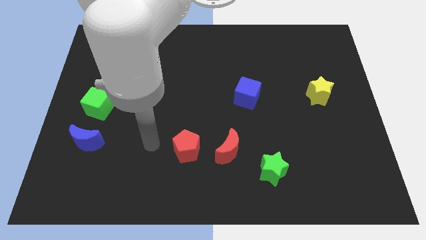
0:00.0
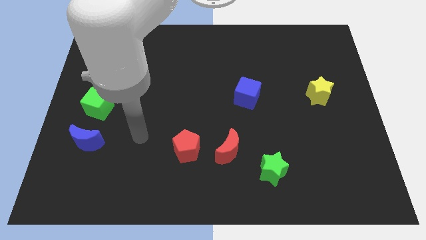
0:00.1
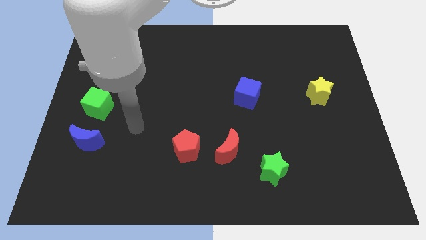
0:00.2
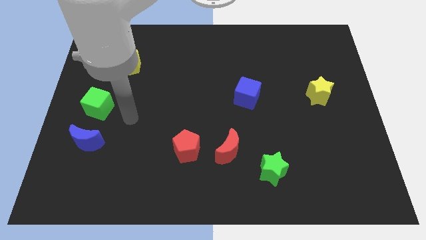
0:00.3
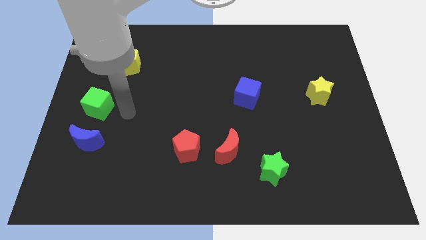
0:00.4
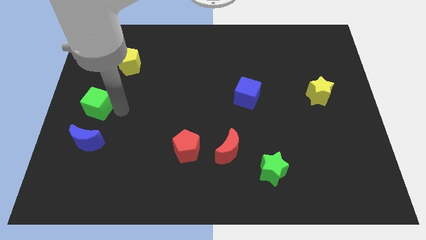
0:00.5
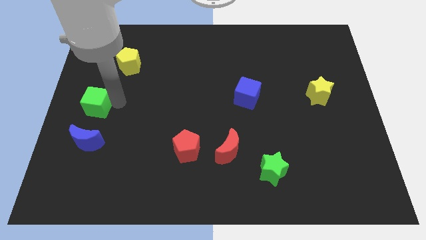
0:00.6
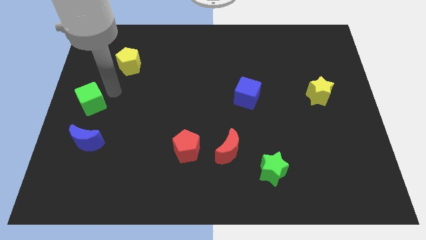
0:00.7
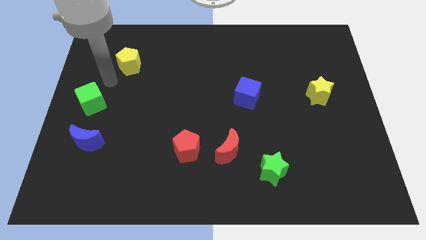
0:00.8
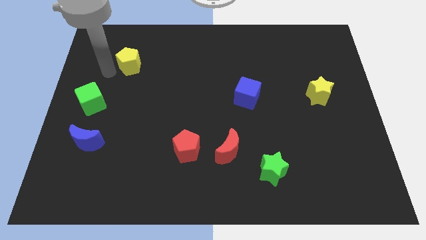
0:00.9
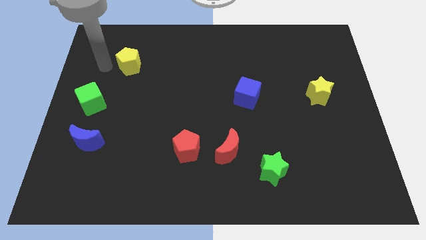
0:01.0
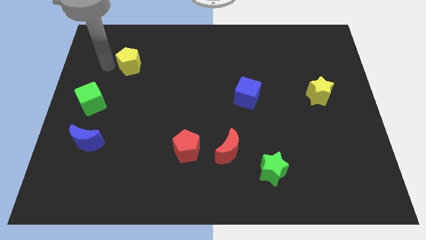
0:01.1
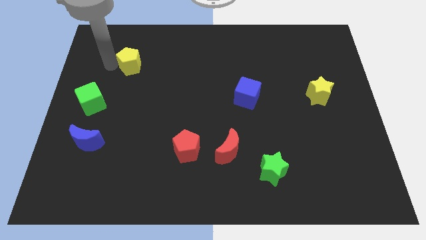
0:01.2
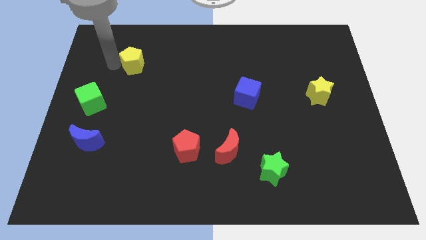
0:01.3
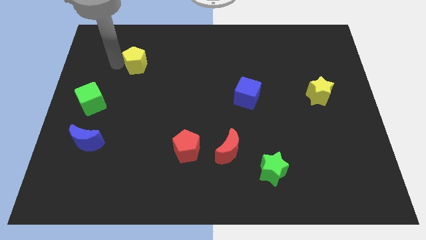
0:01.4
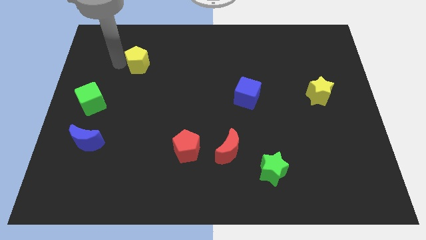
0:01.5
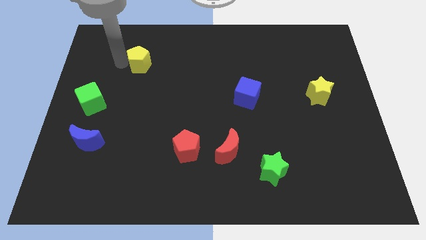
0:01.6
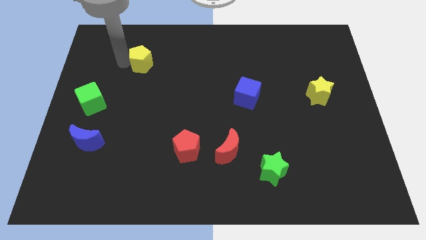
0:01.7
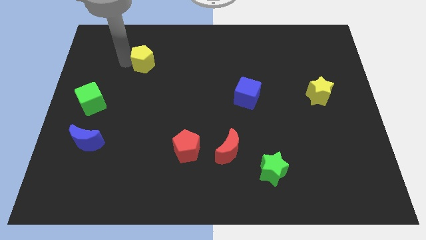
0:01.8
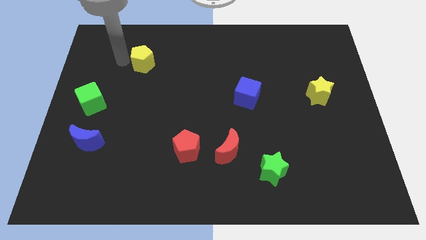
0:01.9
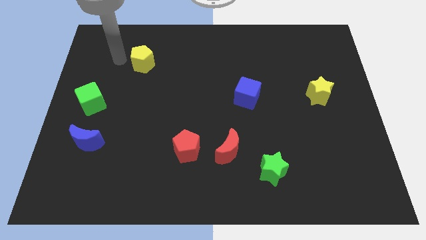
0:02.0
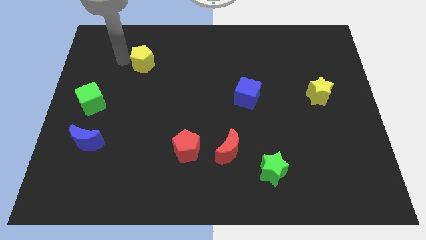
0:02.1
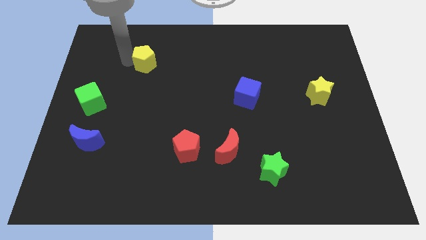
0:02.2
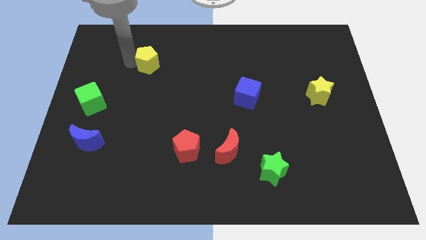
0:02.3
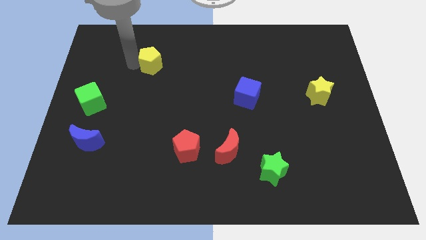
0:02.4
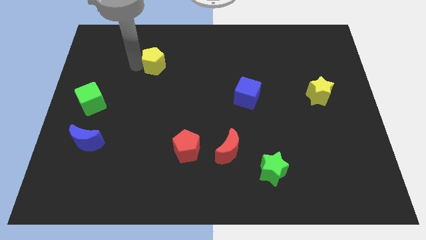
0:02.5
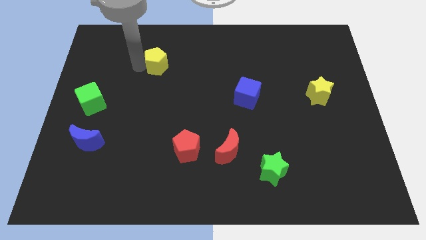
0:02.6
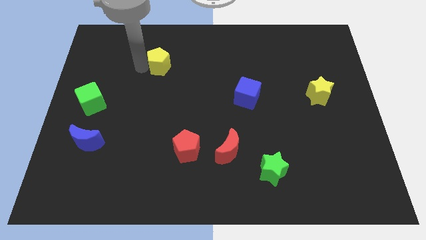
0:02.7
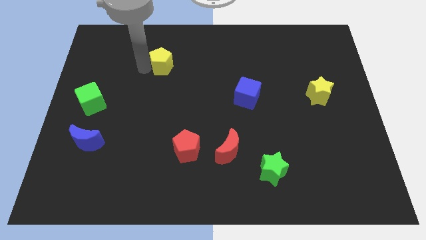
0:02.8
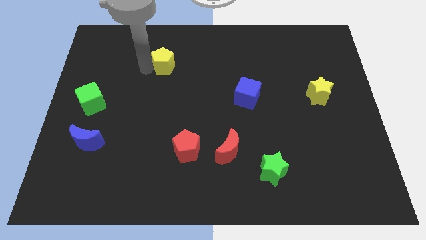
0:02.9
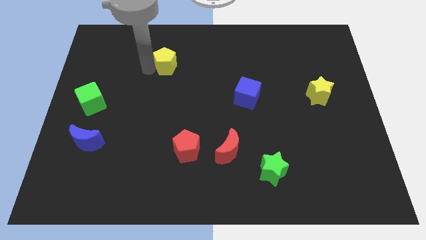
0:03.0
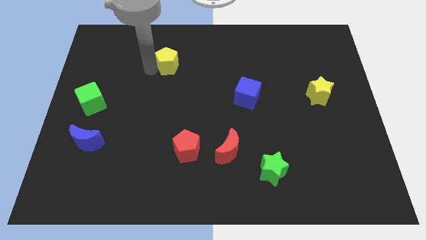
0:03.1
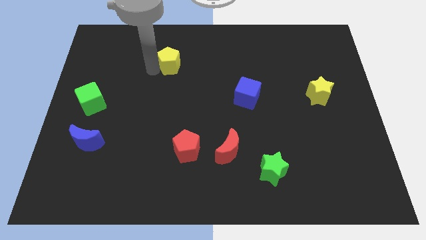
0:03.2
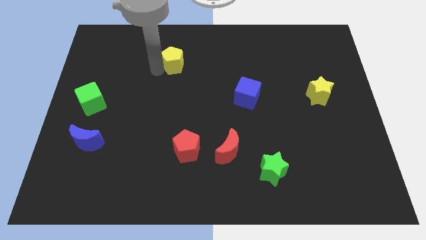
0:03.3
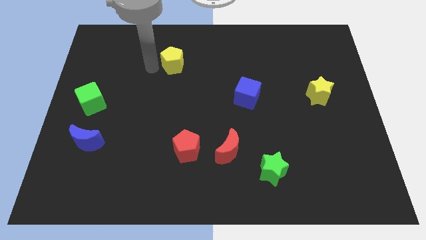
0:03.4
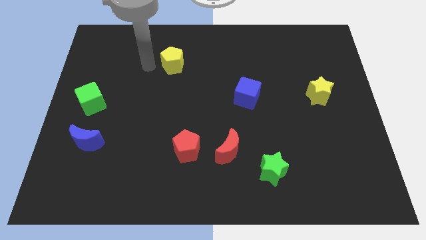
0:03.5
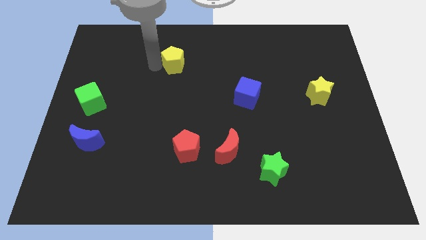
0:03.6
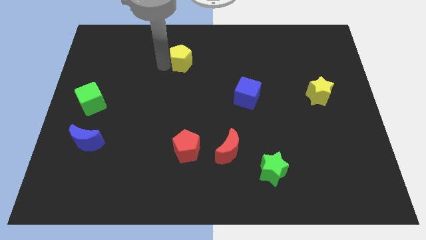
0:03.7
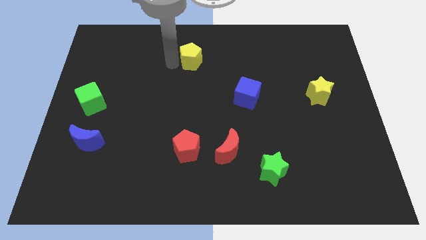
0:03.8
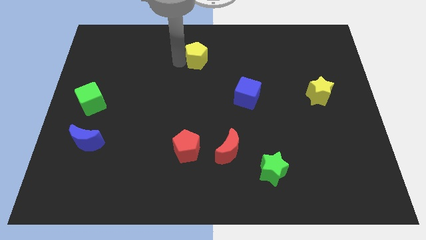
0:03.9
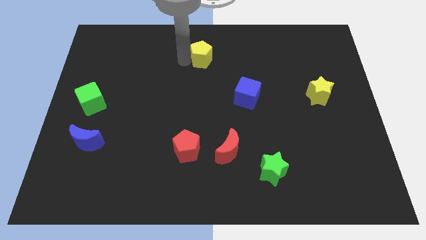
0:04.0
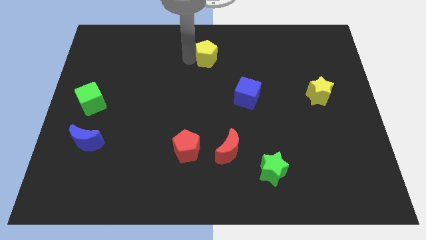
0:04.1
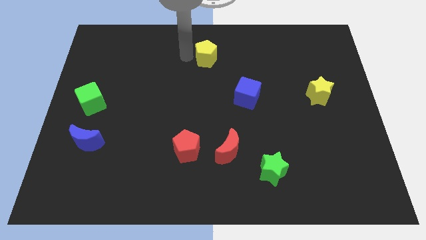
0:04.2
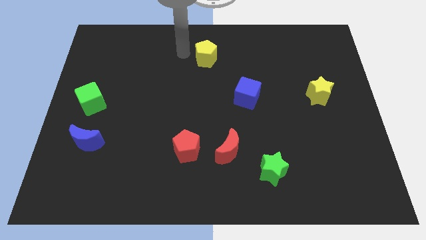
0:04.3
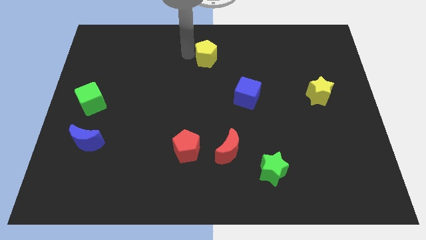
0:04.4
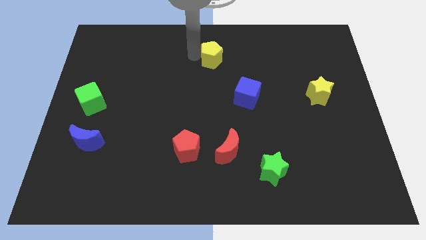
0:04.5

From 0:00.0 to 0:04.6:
push the yellow pentagon to the right

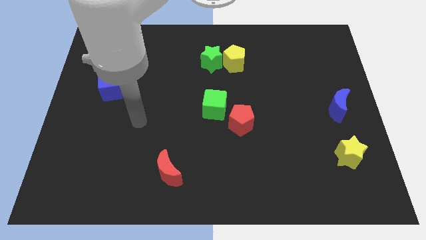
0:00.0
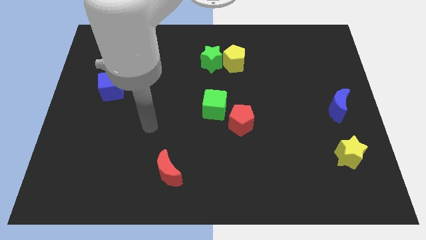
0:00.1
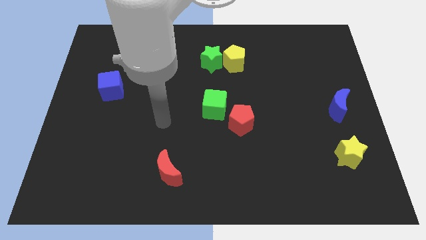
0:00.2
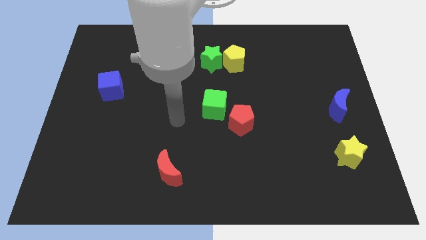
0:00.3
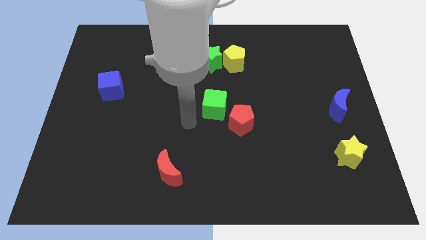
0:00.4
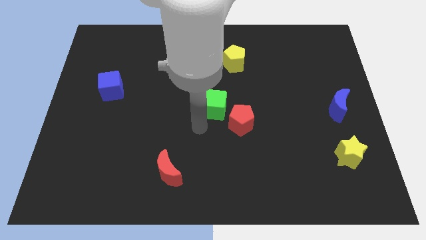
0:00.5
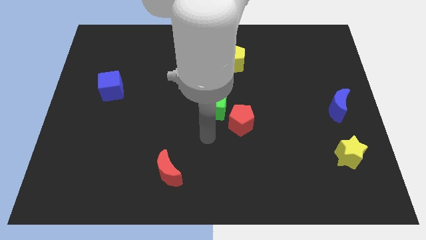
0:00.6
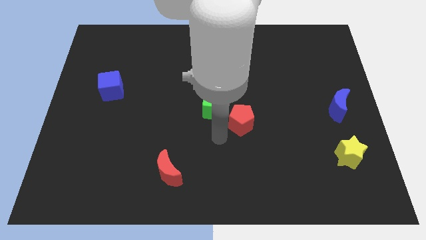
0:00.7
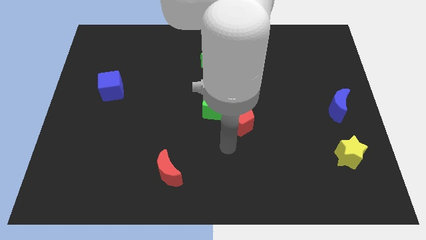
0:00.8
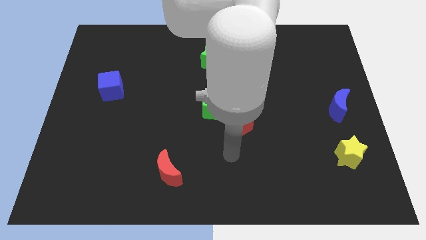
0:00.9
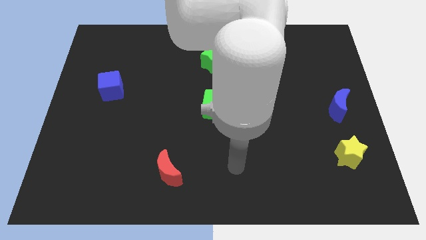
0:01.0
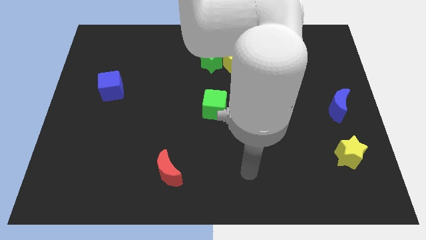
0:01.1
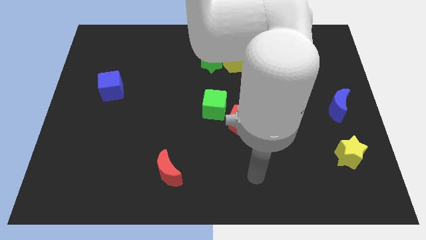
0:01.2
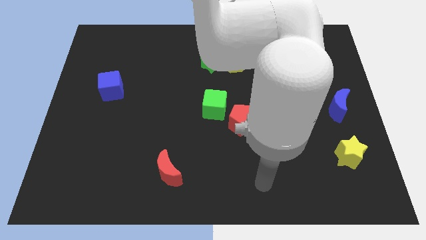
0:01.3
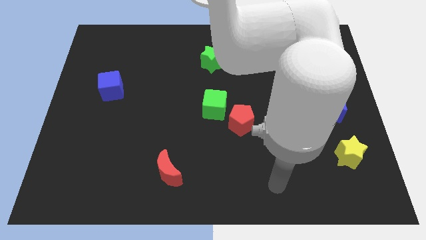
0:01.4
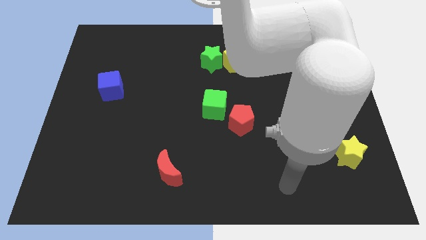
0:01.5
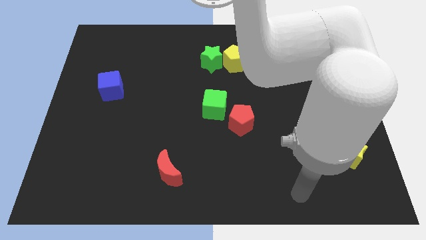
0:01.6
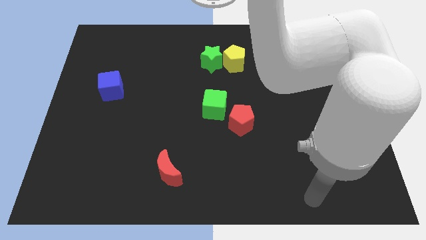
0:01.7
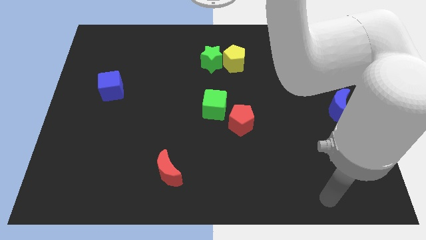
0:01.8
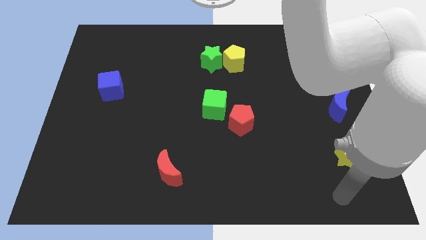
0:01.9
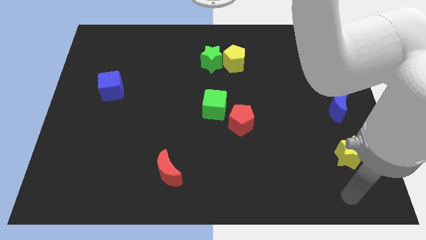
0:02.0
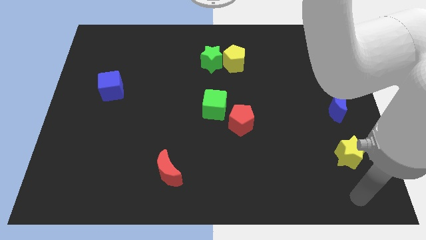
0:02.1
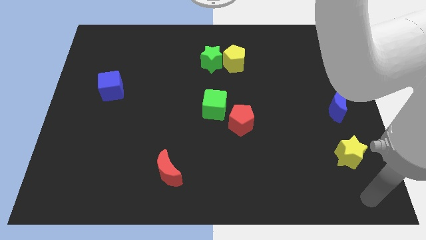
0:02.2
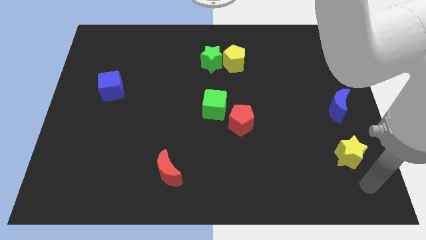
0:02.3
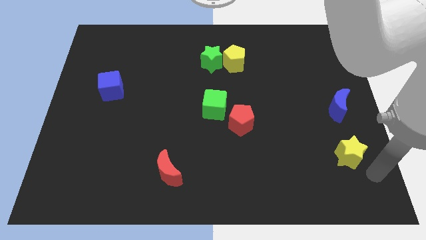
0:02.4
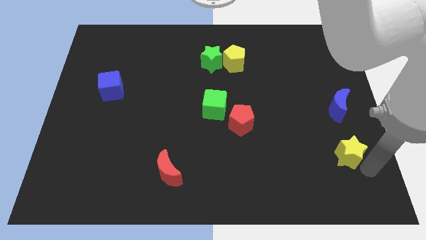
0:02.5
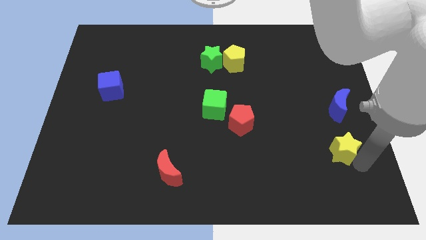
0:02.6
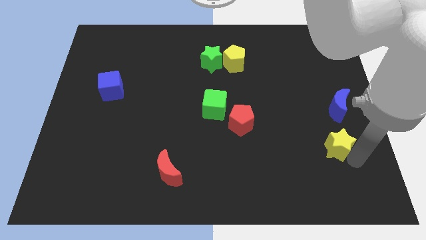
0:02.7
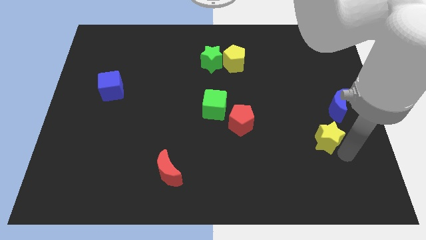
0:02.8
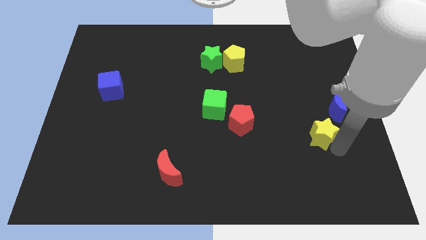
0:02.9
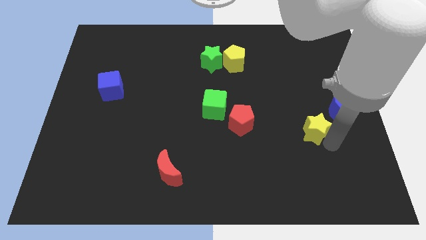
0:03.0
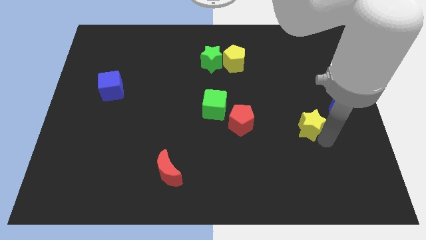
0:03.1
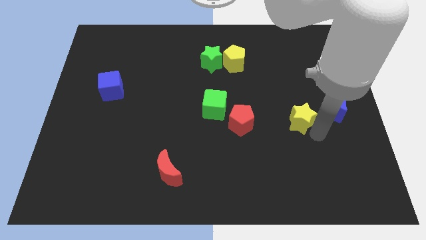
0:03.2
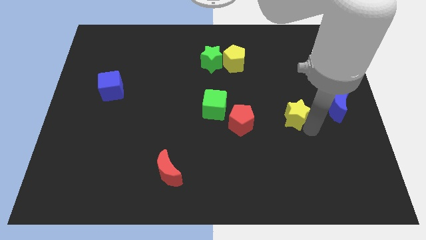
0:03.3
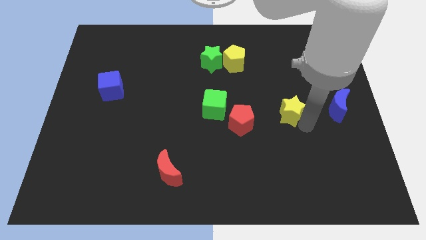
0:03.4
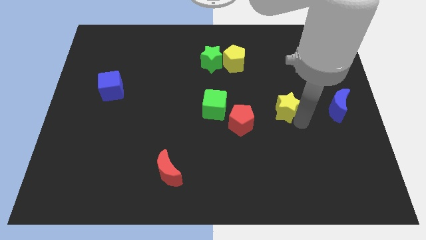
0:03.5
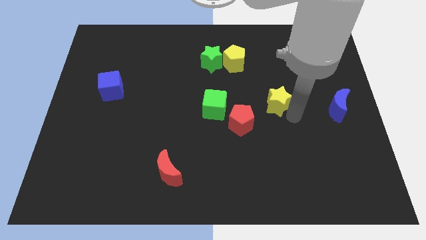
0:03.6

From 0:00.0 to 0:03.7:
slide the yellow star upwards and left
